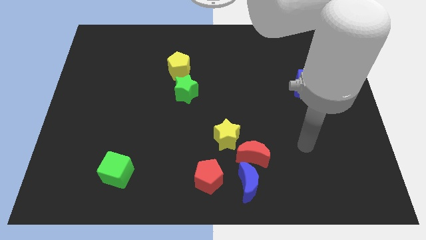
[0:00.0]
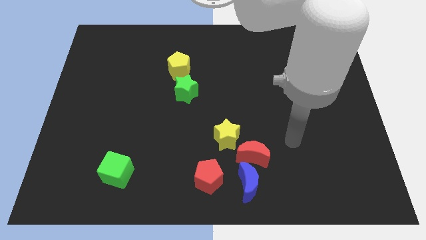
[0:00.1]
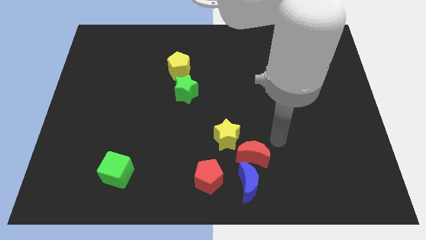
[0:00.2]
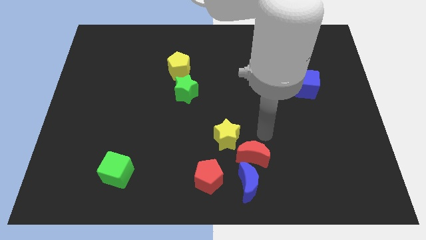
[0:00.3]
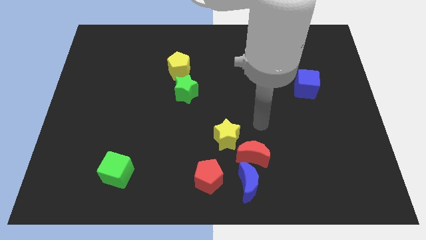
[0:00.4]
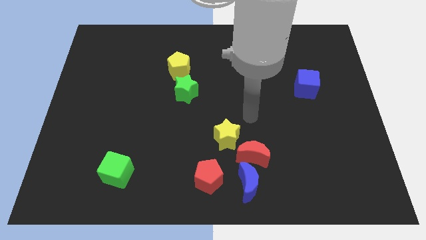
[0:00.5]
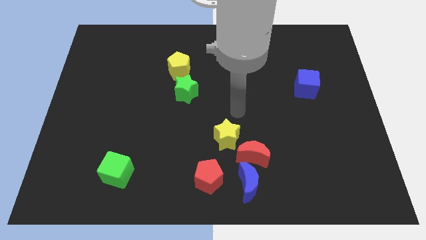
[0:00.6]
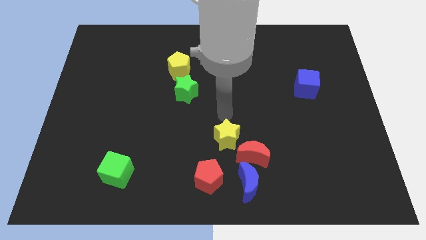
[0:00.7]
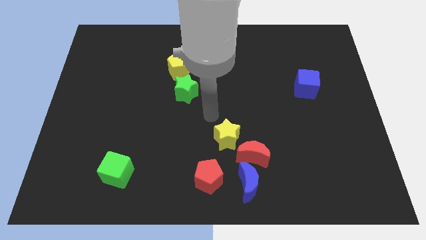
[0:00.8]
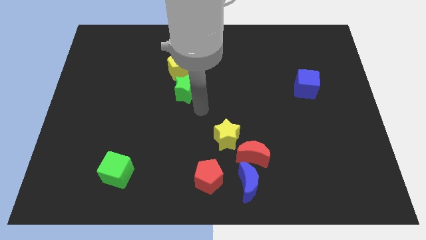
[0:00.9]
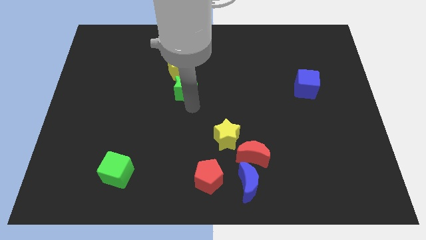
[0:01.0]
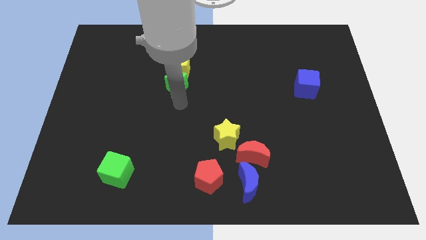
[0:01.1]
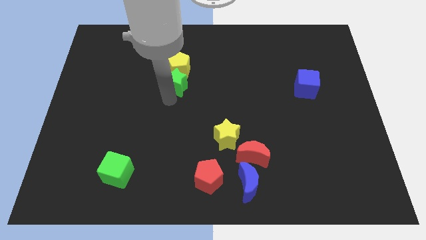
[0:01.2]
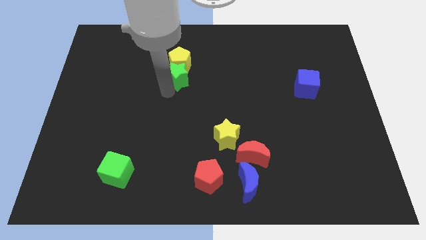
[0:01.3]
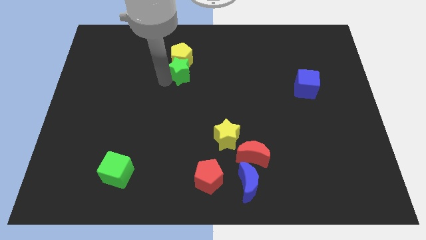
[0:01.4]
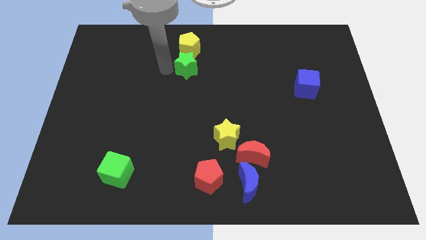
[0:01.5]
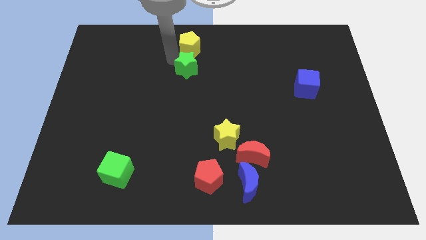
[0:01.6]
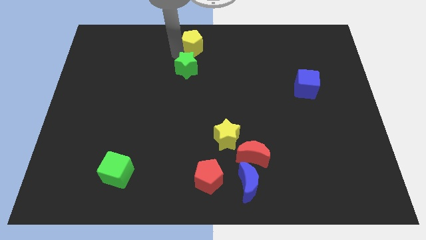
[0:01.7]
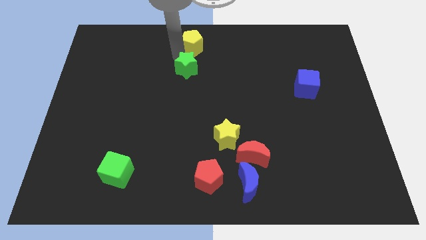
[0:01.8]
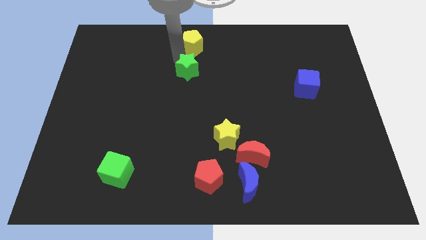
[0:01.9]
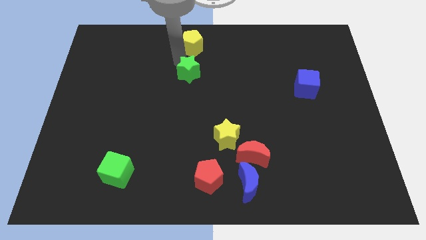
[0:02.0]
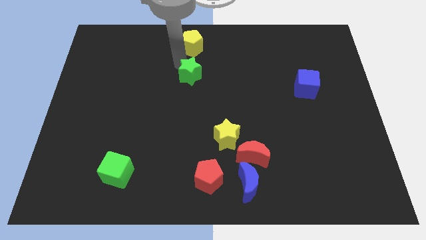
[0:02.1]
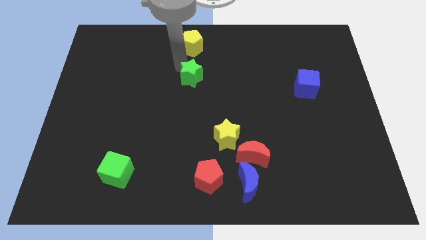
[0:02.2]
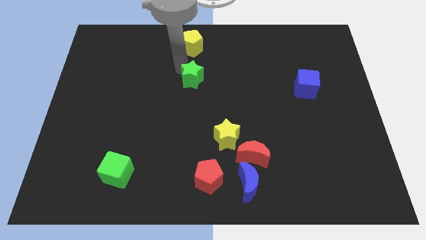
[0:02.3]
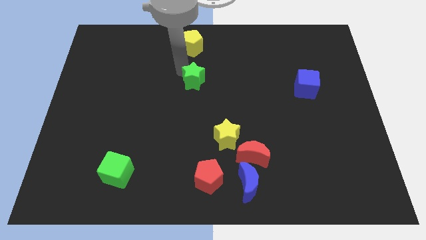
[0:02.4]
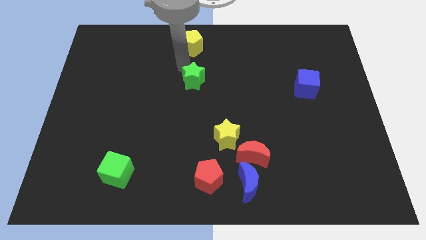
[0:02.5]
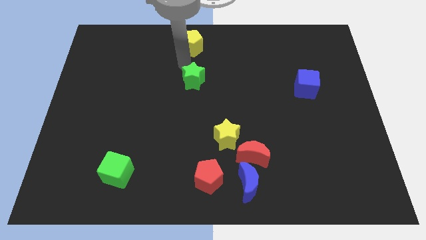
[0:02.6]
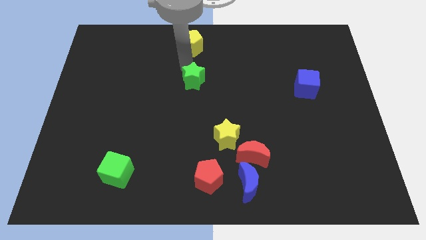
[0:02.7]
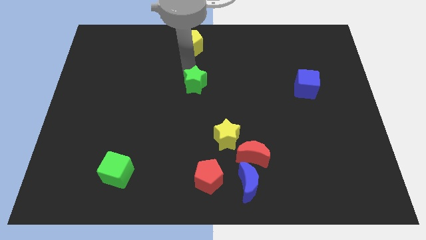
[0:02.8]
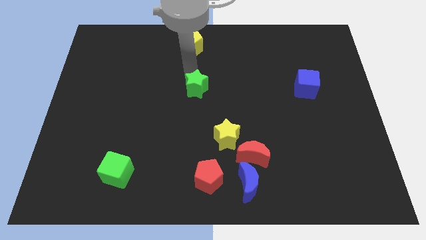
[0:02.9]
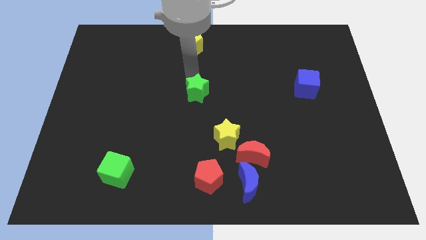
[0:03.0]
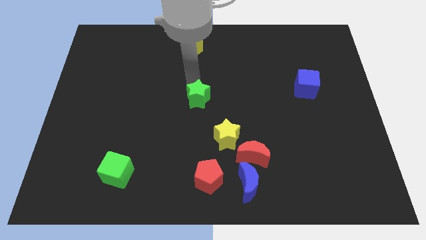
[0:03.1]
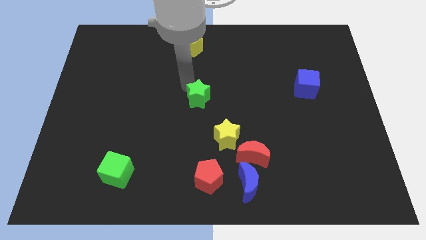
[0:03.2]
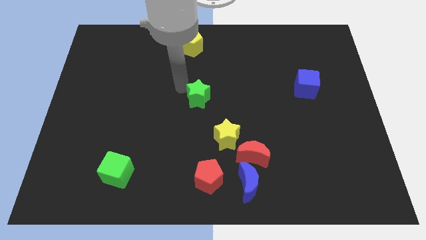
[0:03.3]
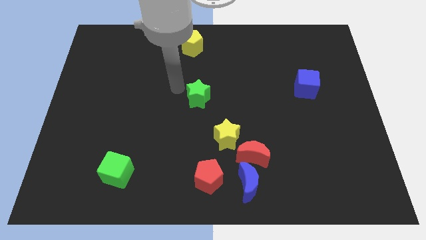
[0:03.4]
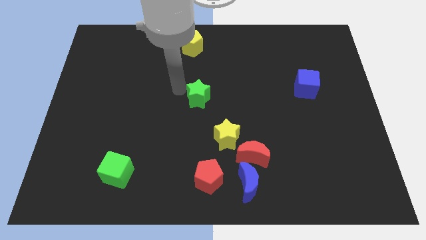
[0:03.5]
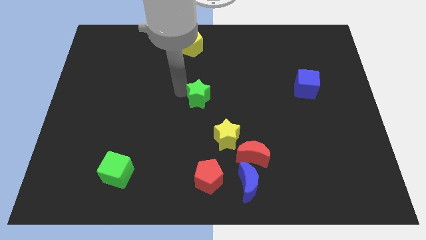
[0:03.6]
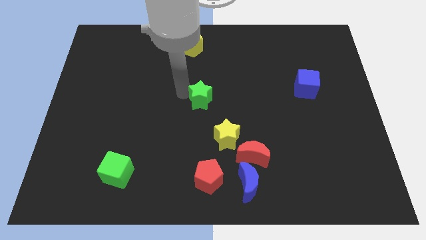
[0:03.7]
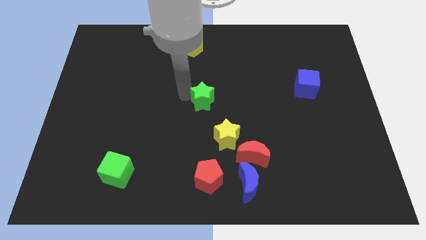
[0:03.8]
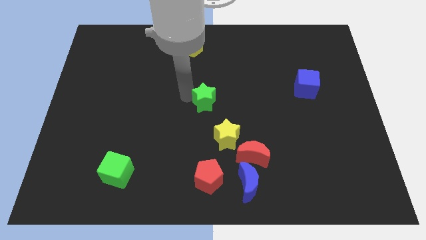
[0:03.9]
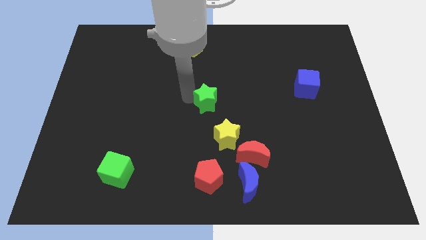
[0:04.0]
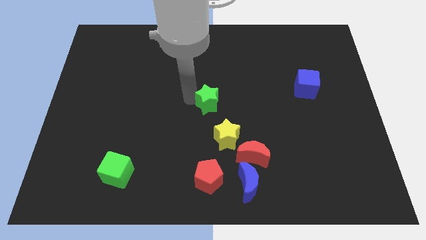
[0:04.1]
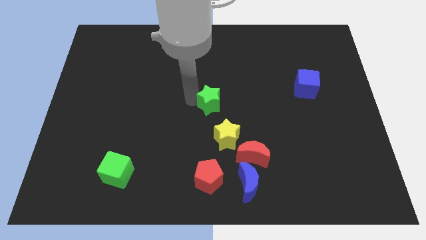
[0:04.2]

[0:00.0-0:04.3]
slide the green star a little bit diagonally downwards and to the right

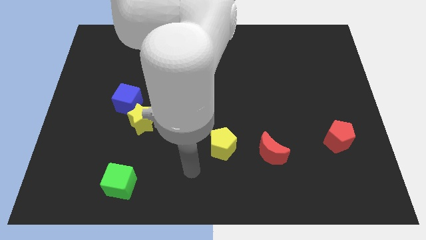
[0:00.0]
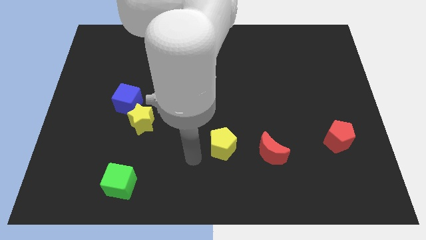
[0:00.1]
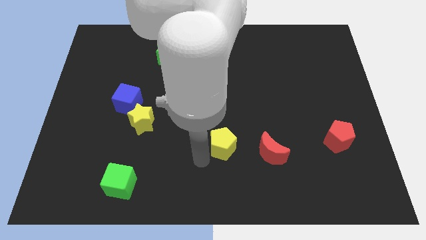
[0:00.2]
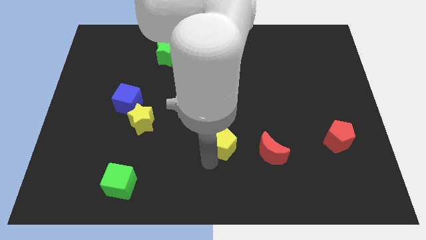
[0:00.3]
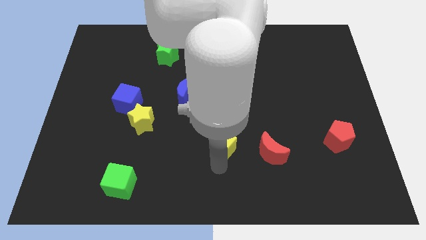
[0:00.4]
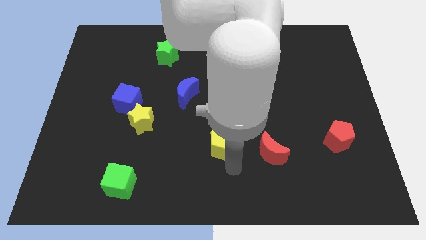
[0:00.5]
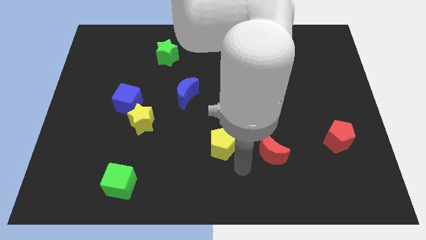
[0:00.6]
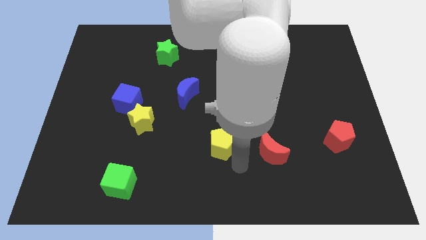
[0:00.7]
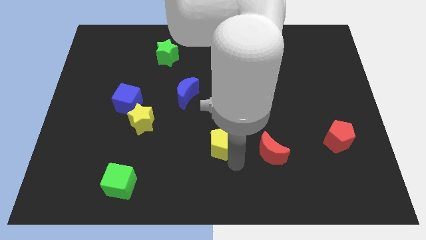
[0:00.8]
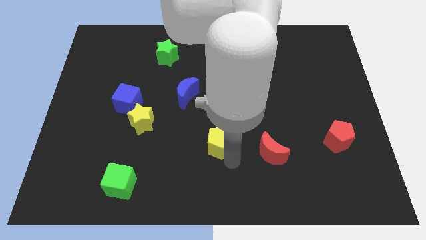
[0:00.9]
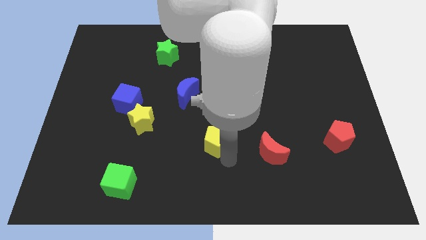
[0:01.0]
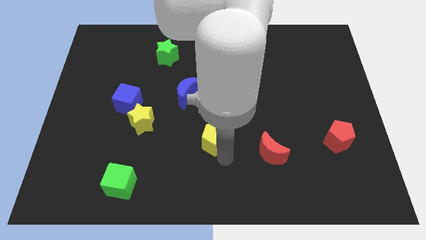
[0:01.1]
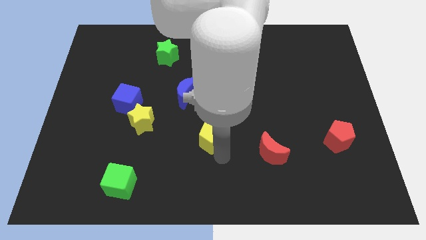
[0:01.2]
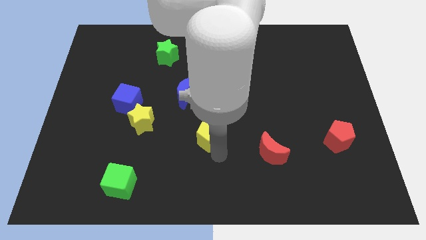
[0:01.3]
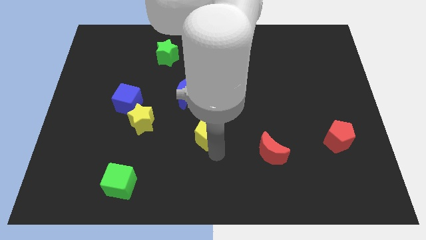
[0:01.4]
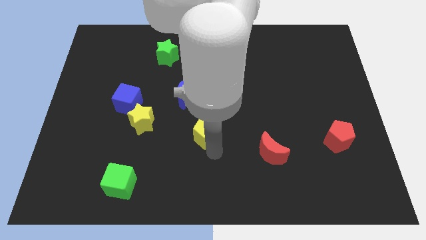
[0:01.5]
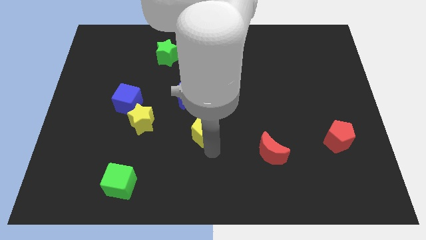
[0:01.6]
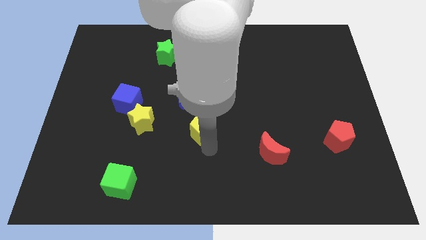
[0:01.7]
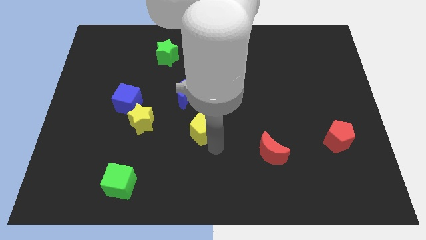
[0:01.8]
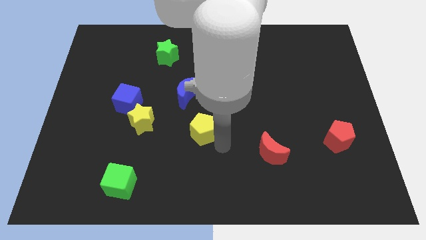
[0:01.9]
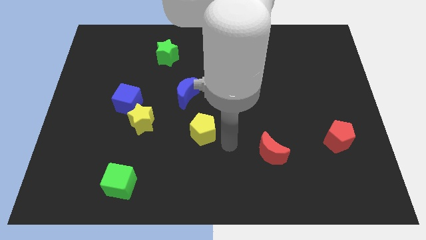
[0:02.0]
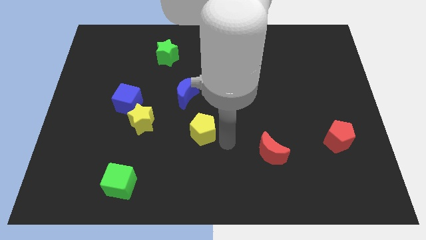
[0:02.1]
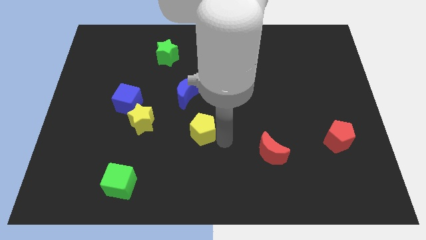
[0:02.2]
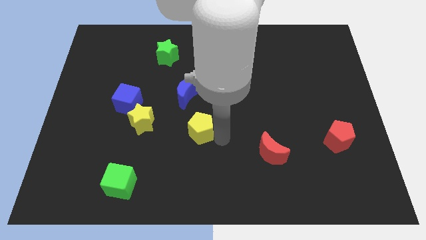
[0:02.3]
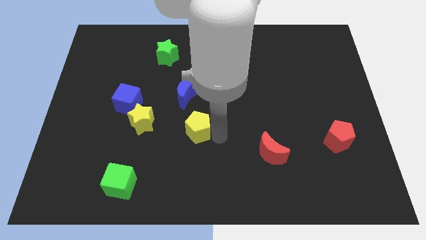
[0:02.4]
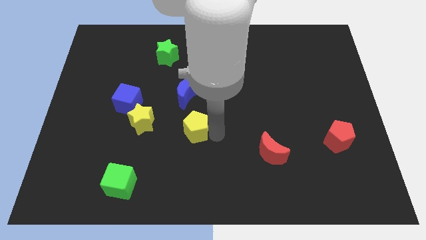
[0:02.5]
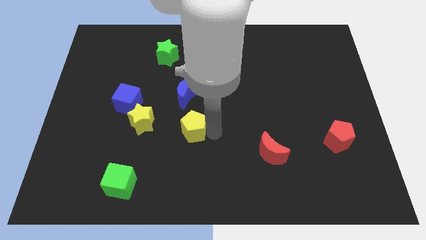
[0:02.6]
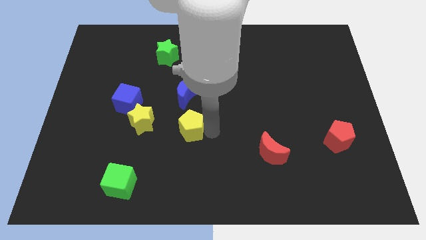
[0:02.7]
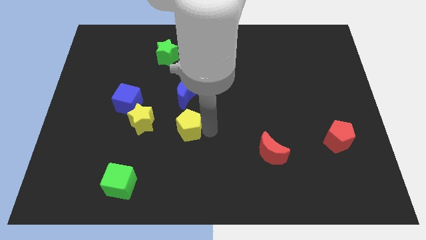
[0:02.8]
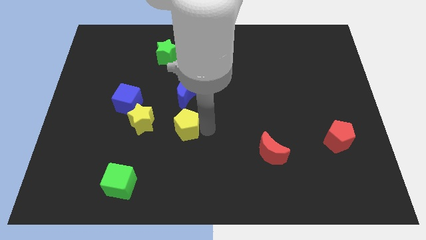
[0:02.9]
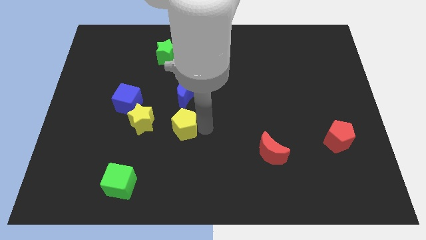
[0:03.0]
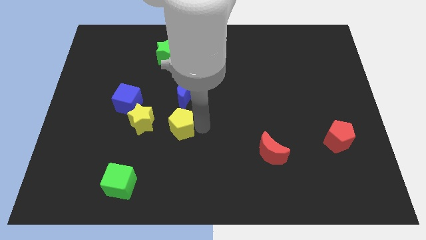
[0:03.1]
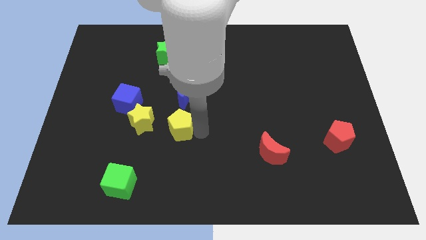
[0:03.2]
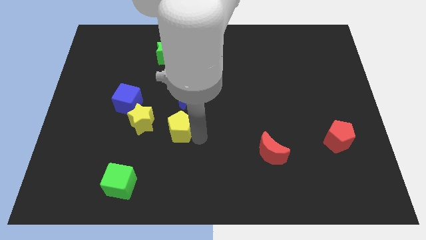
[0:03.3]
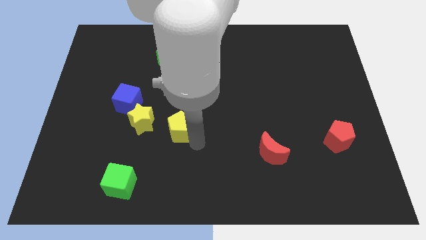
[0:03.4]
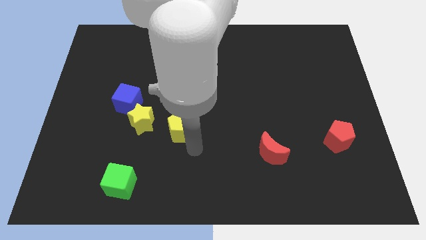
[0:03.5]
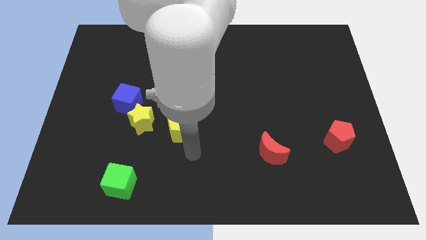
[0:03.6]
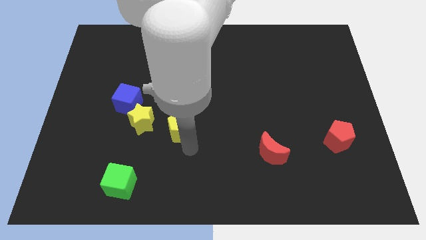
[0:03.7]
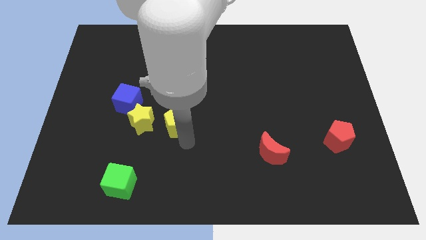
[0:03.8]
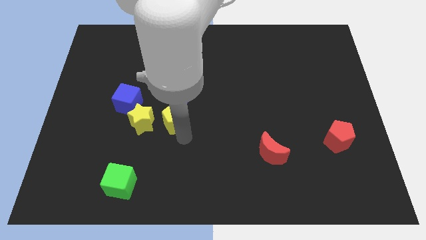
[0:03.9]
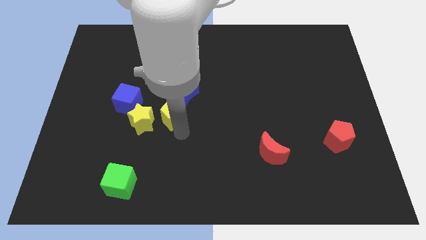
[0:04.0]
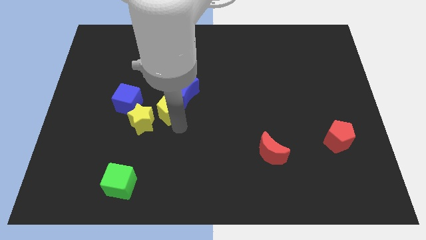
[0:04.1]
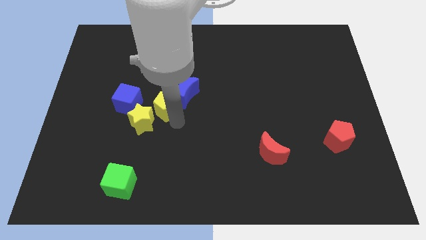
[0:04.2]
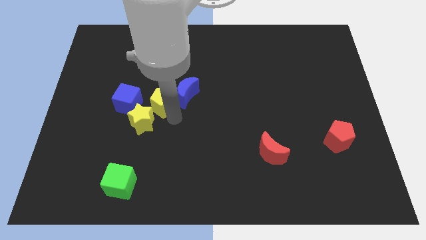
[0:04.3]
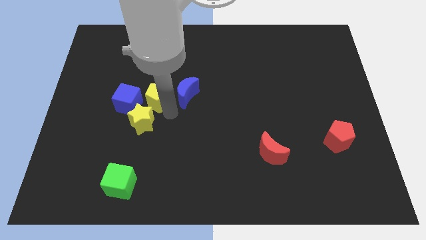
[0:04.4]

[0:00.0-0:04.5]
move the yellow pentagon upwards and then left
